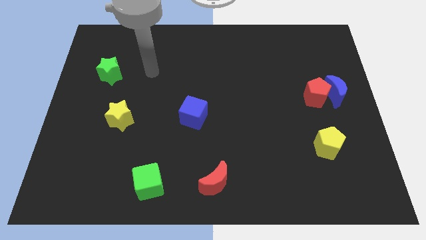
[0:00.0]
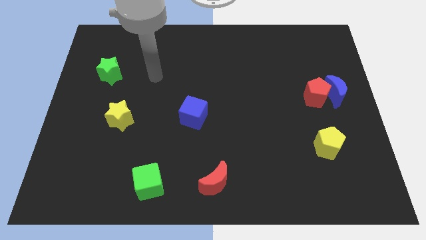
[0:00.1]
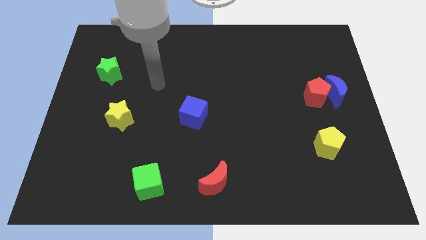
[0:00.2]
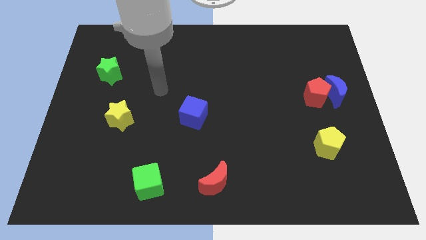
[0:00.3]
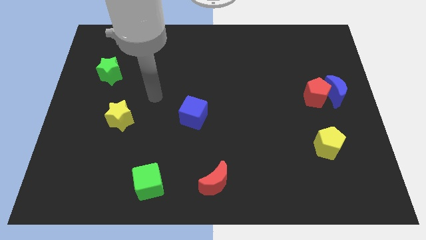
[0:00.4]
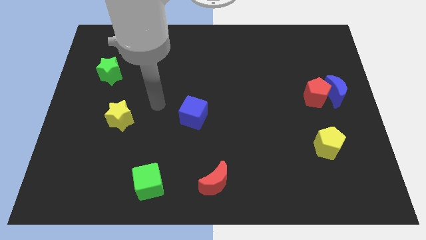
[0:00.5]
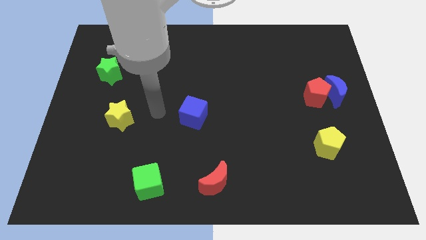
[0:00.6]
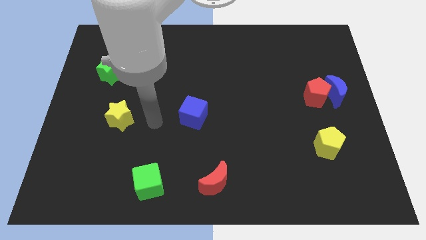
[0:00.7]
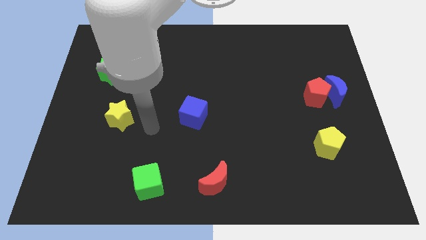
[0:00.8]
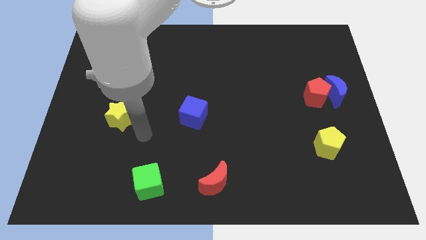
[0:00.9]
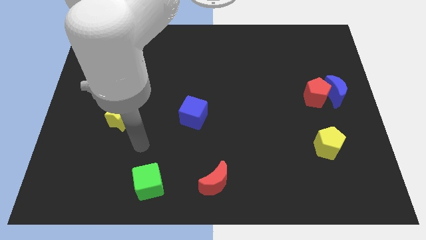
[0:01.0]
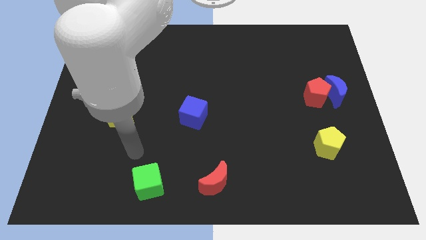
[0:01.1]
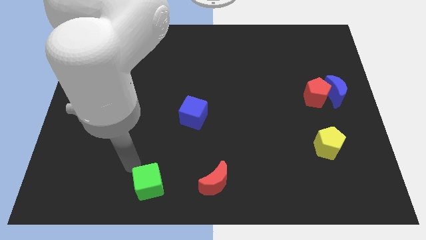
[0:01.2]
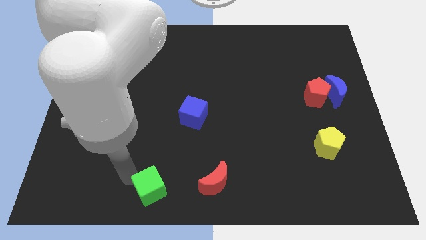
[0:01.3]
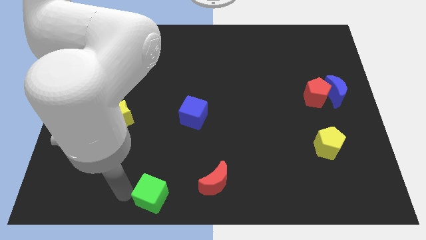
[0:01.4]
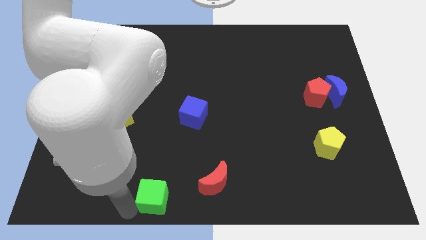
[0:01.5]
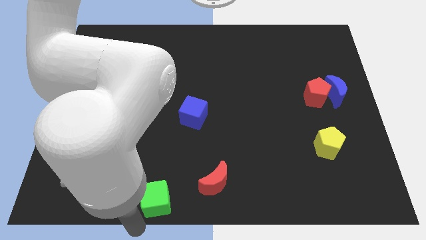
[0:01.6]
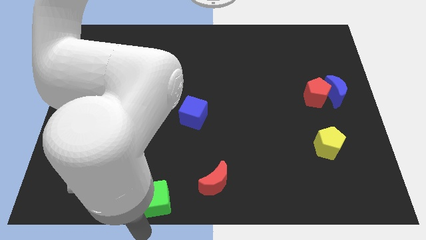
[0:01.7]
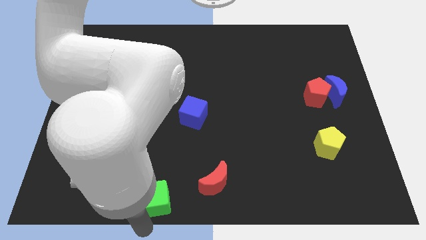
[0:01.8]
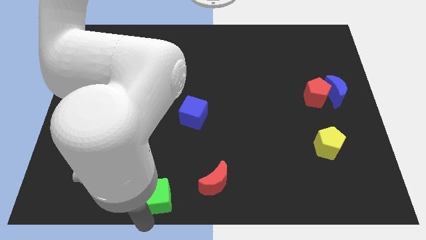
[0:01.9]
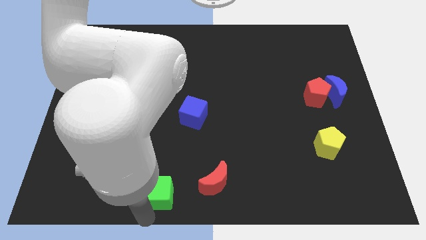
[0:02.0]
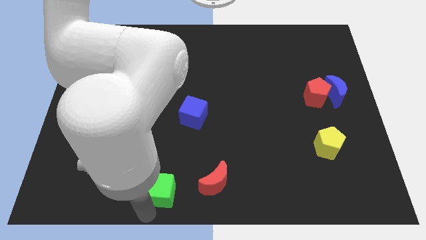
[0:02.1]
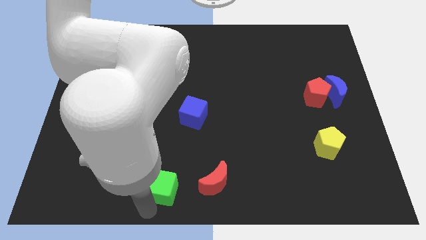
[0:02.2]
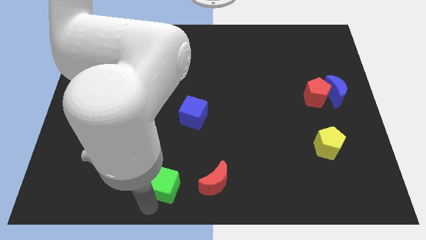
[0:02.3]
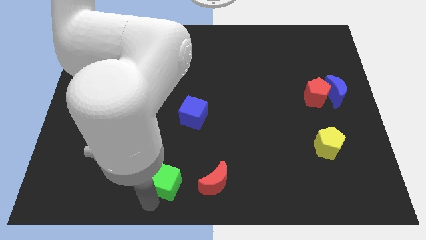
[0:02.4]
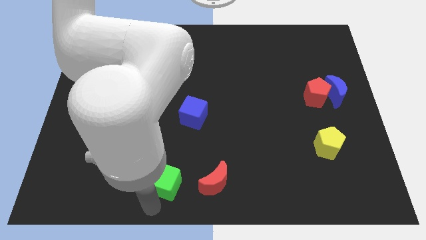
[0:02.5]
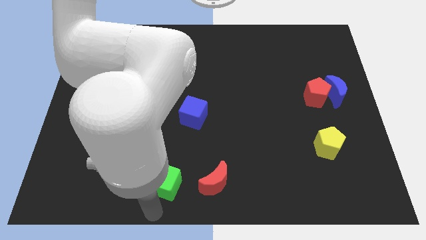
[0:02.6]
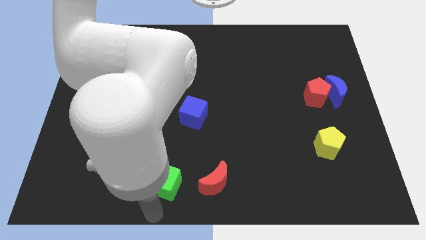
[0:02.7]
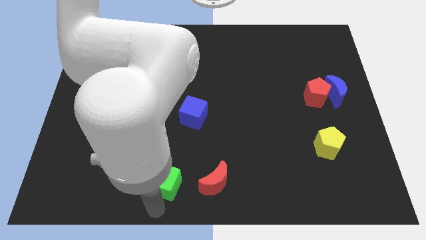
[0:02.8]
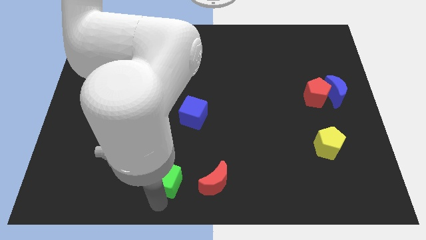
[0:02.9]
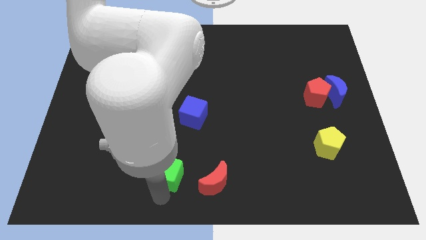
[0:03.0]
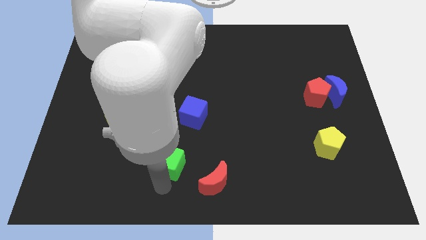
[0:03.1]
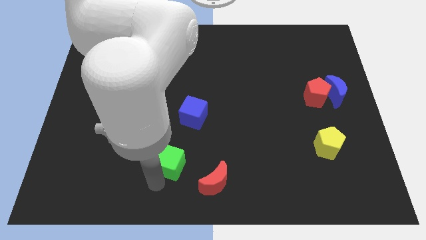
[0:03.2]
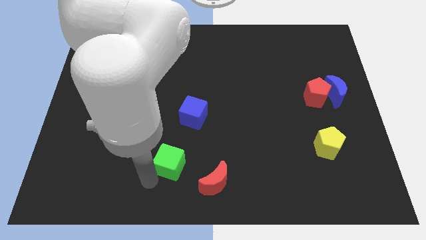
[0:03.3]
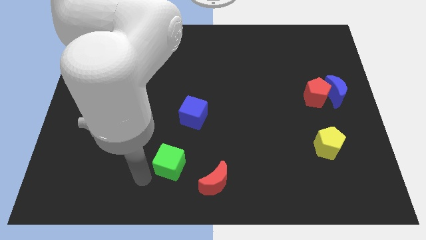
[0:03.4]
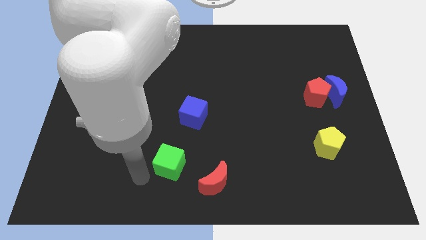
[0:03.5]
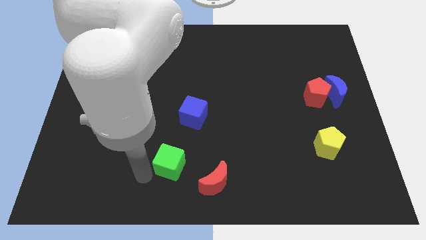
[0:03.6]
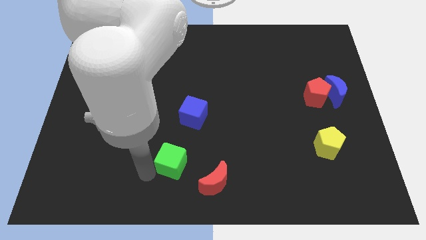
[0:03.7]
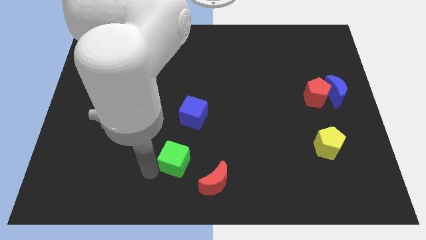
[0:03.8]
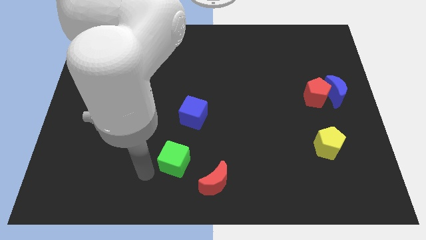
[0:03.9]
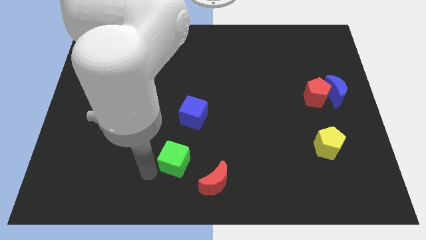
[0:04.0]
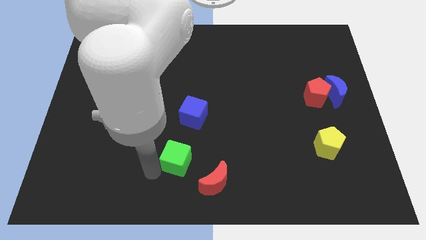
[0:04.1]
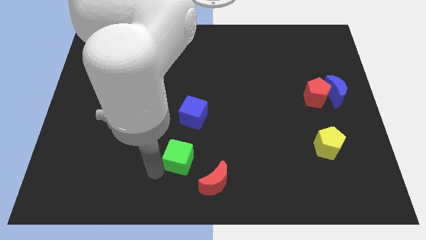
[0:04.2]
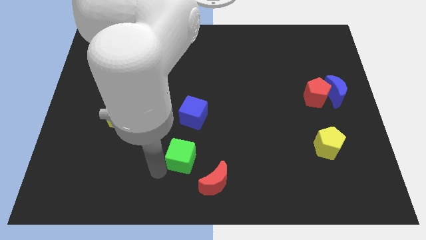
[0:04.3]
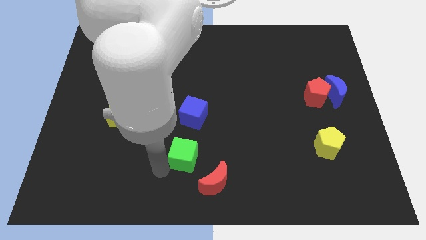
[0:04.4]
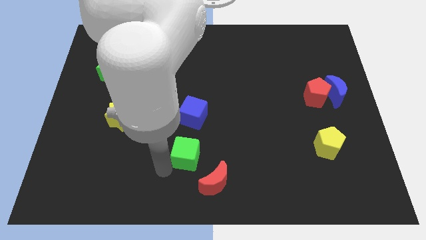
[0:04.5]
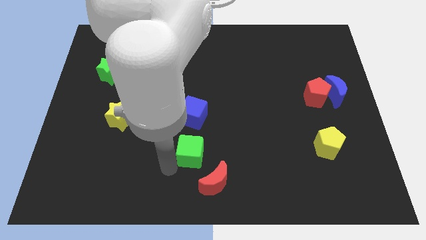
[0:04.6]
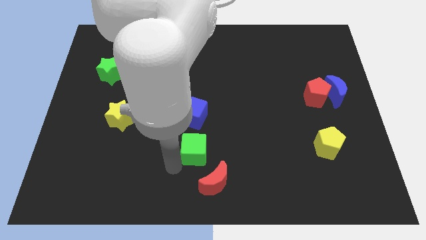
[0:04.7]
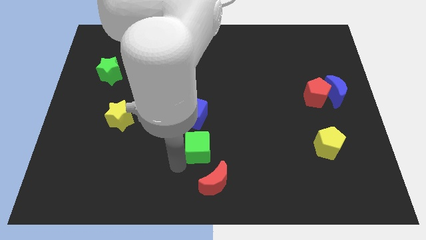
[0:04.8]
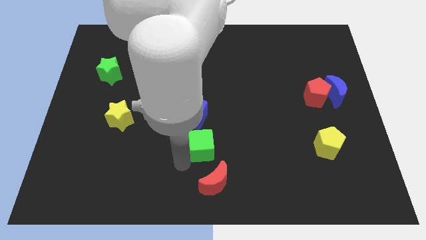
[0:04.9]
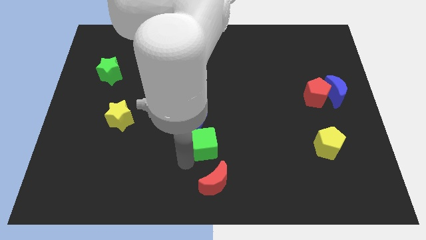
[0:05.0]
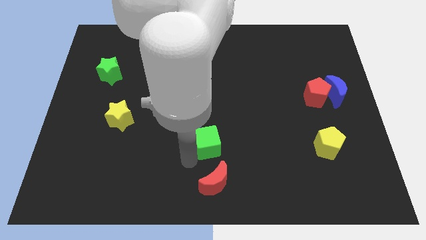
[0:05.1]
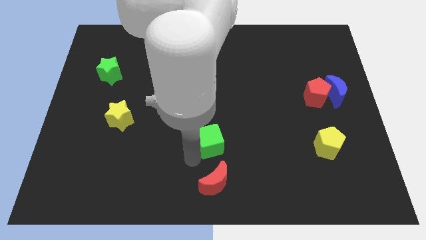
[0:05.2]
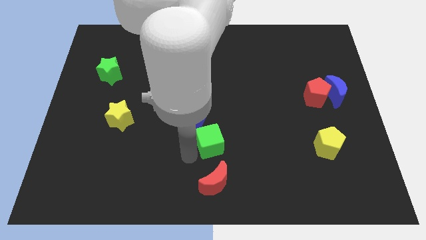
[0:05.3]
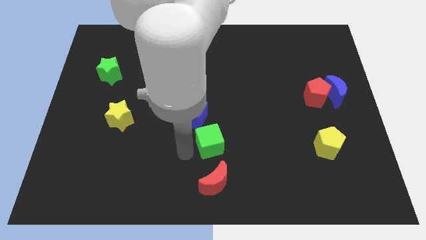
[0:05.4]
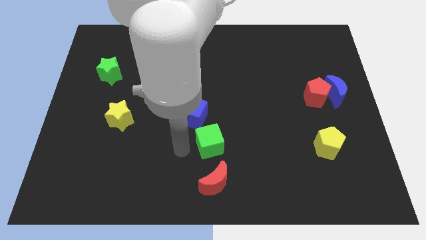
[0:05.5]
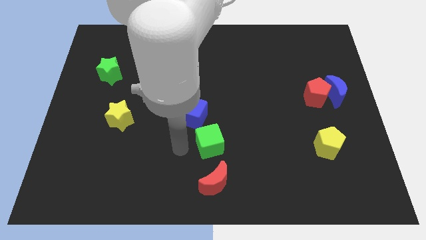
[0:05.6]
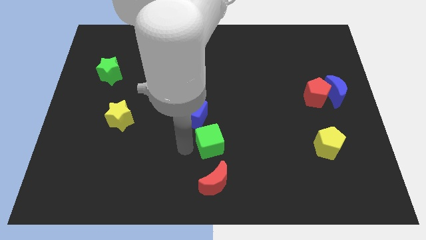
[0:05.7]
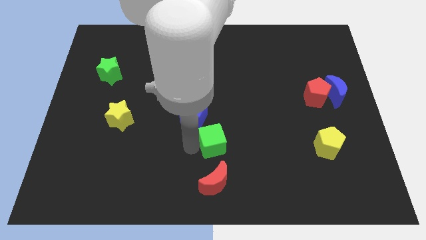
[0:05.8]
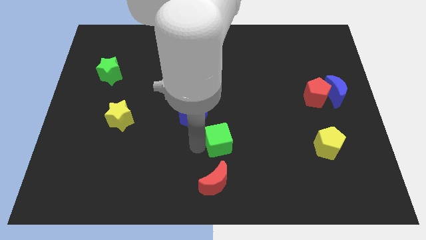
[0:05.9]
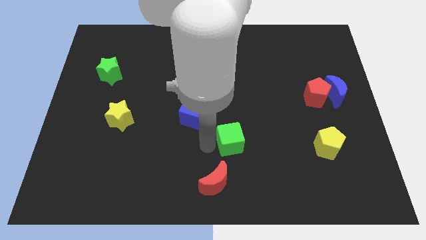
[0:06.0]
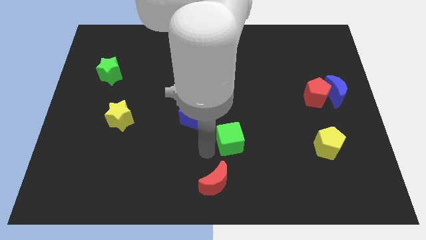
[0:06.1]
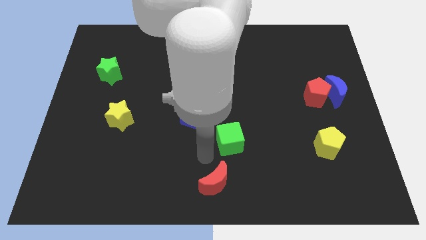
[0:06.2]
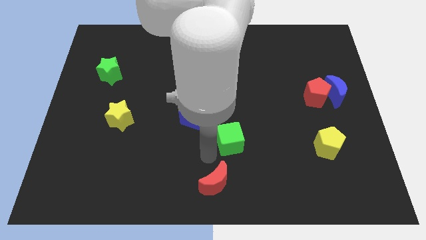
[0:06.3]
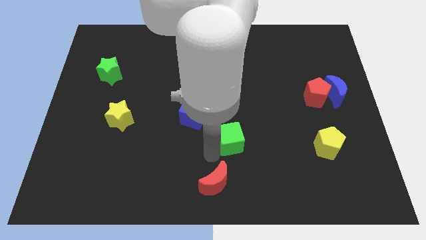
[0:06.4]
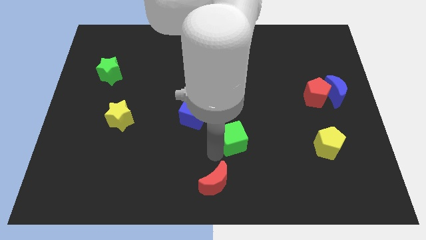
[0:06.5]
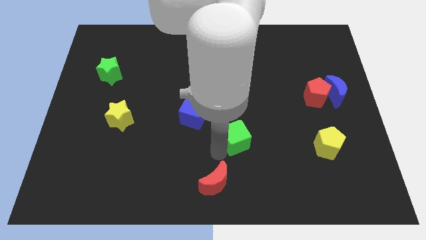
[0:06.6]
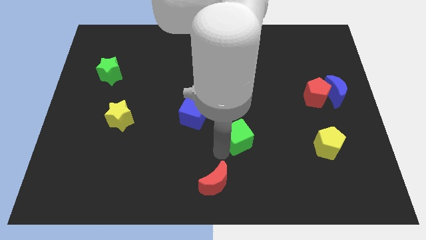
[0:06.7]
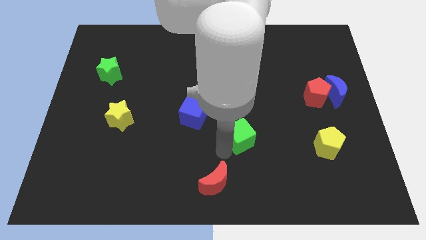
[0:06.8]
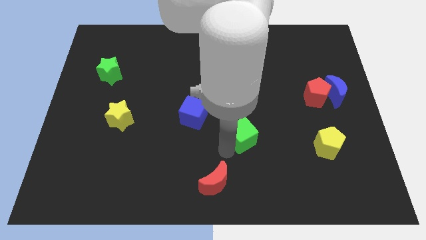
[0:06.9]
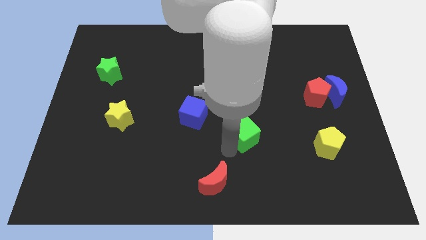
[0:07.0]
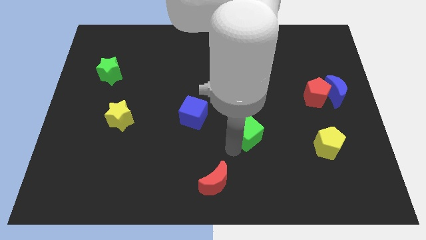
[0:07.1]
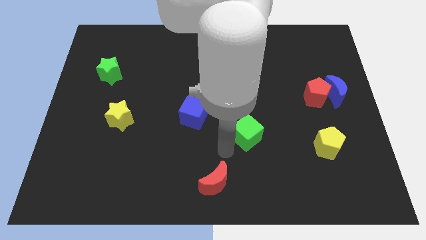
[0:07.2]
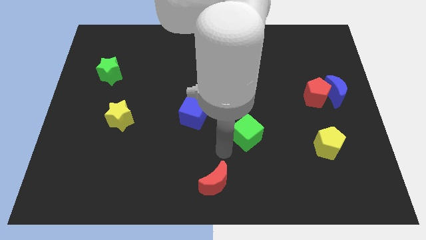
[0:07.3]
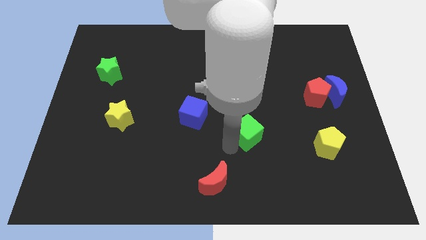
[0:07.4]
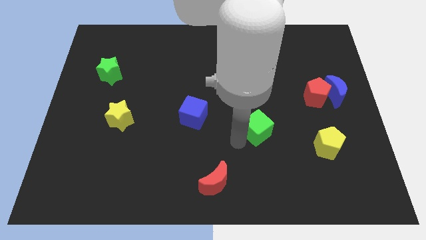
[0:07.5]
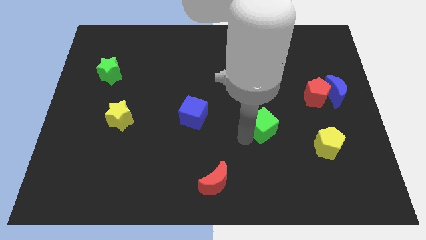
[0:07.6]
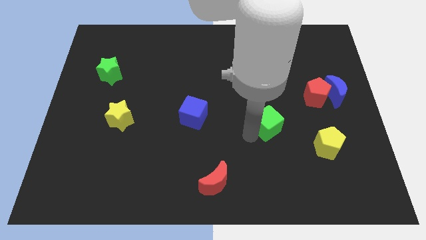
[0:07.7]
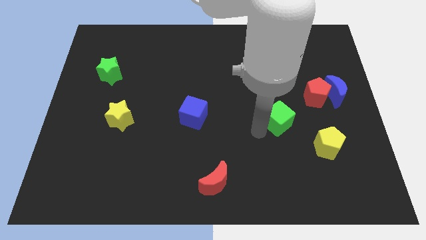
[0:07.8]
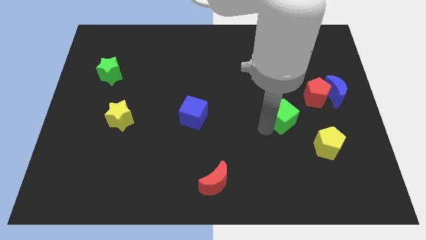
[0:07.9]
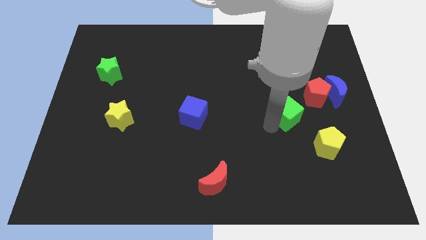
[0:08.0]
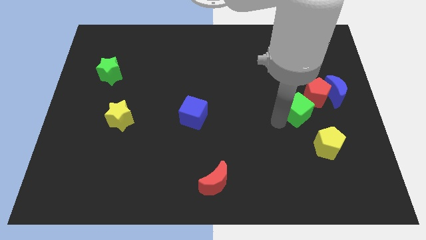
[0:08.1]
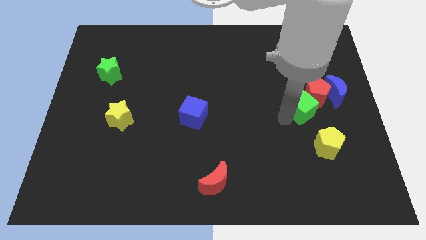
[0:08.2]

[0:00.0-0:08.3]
put the green cube to the red pentagon
